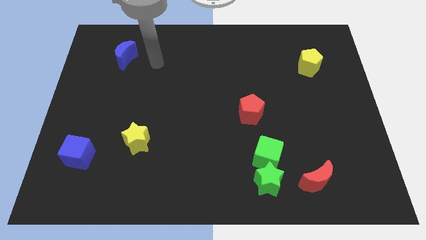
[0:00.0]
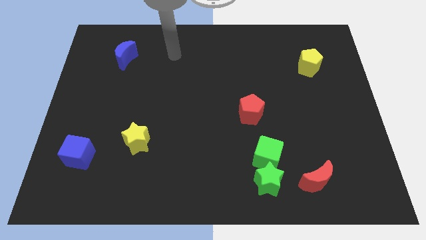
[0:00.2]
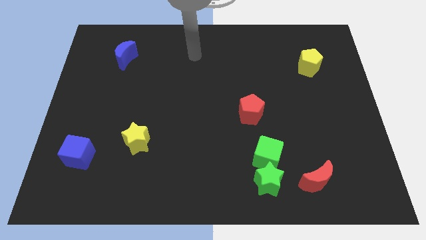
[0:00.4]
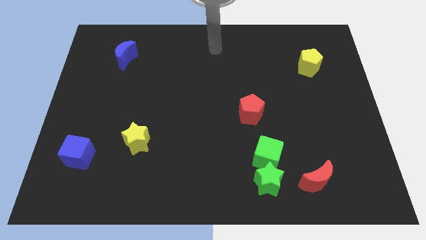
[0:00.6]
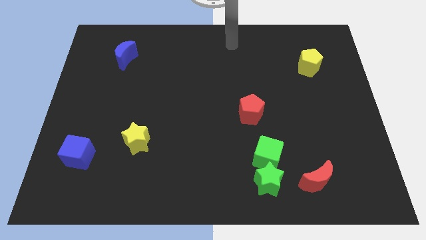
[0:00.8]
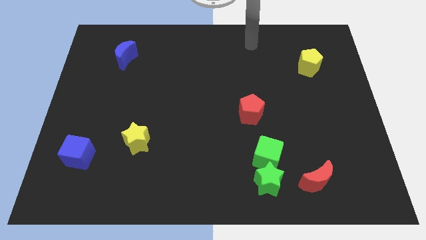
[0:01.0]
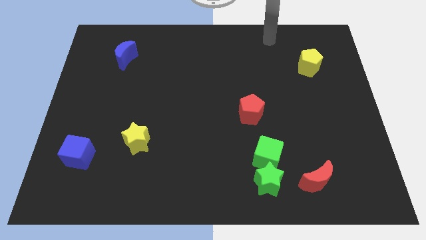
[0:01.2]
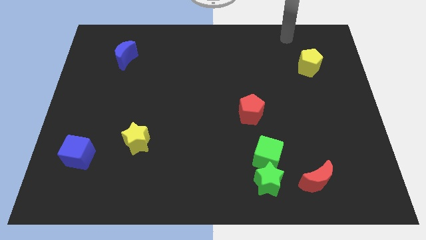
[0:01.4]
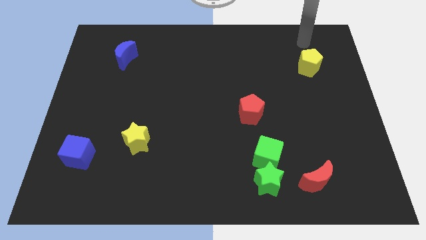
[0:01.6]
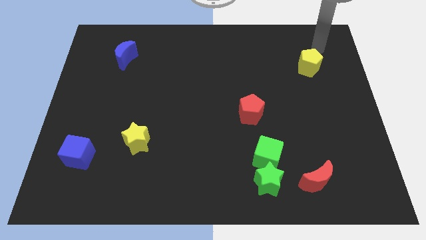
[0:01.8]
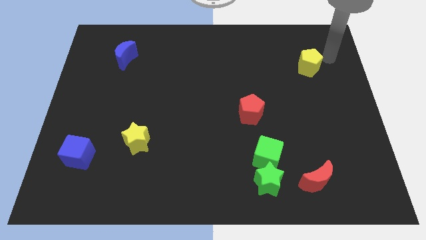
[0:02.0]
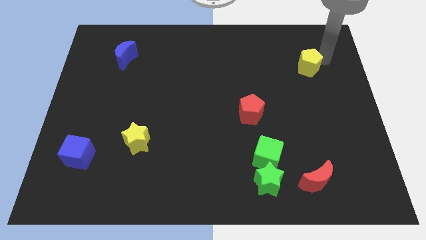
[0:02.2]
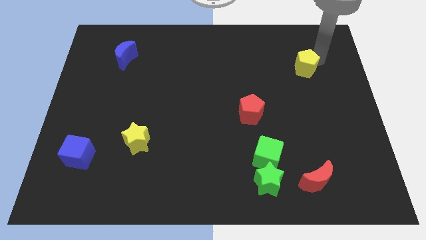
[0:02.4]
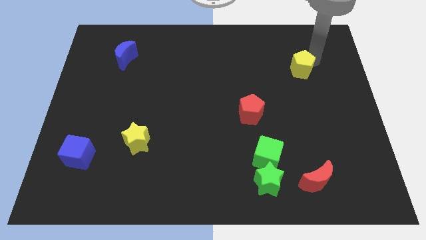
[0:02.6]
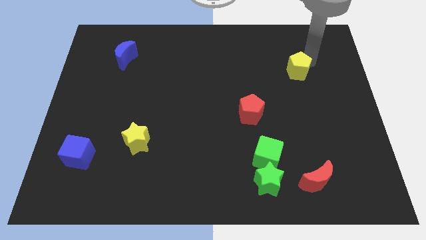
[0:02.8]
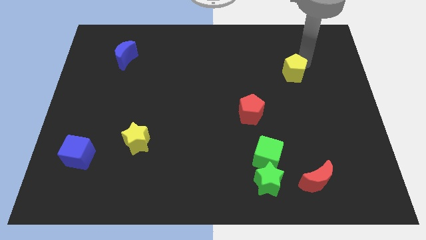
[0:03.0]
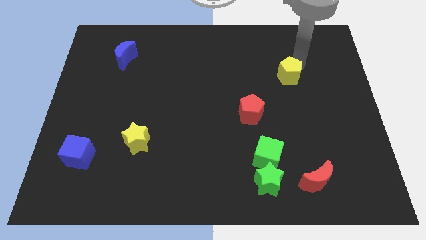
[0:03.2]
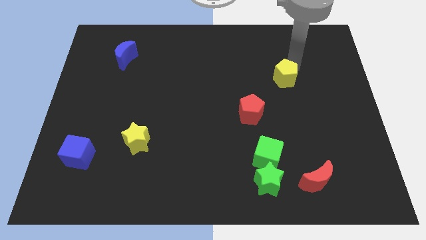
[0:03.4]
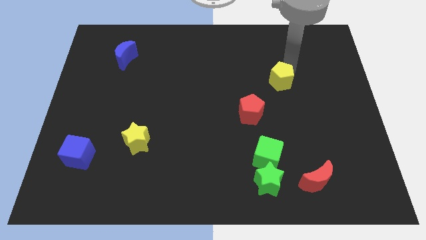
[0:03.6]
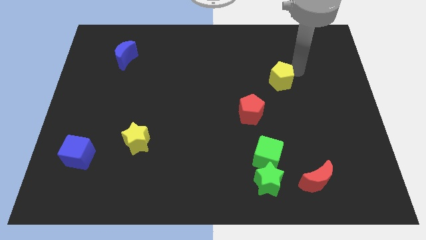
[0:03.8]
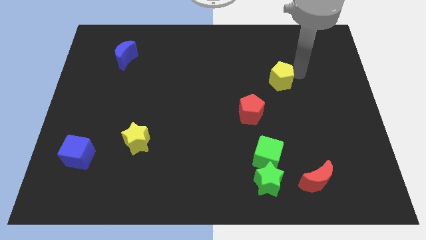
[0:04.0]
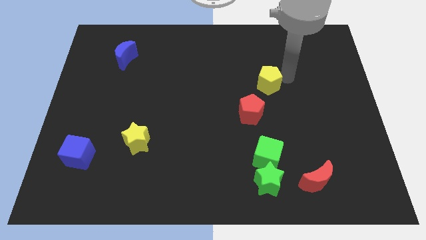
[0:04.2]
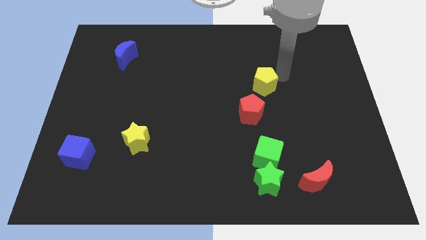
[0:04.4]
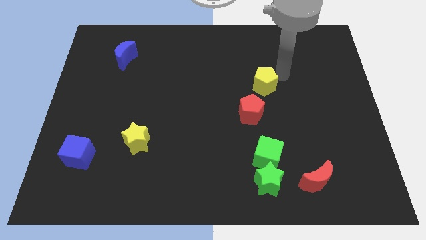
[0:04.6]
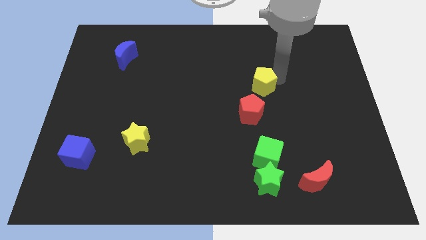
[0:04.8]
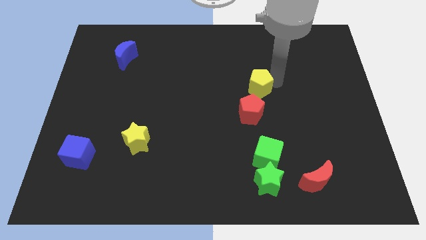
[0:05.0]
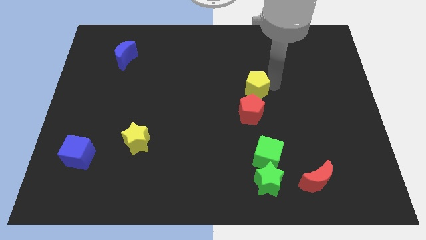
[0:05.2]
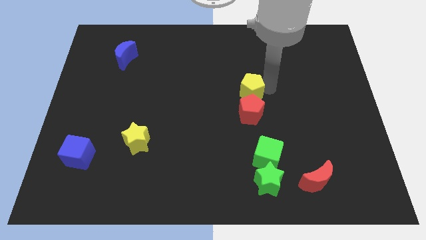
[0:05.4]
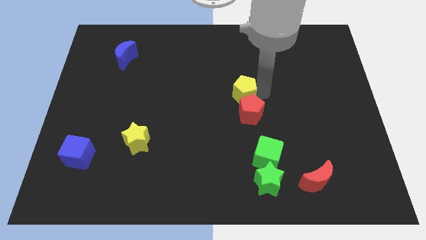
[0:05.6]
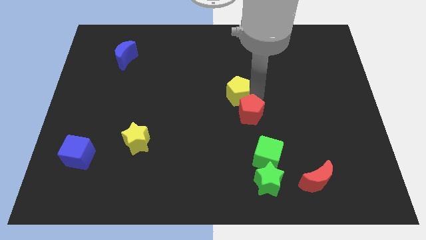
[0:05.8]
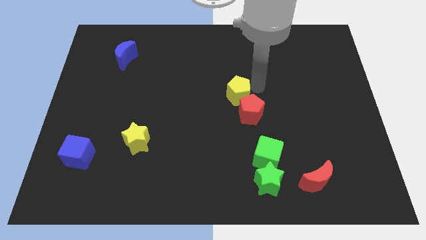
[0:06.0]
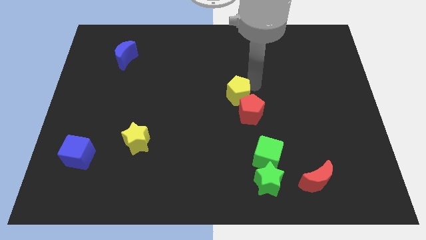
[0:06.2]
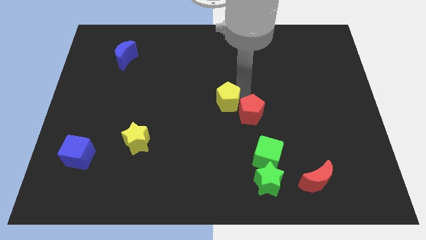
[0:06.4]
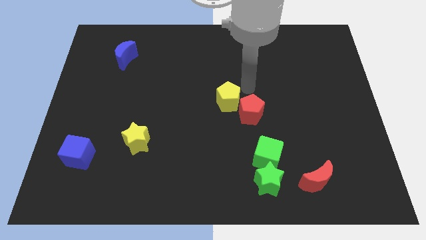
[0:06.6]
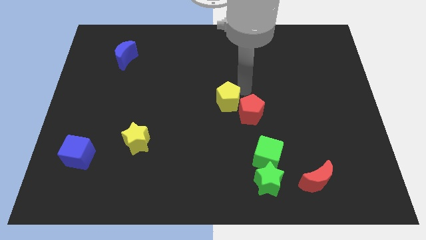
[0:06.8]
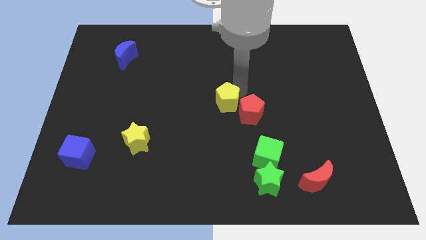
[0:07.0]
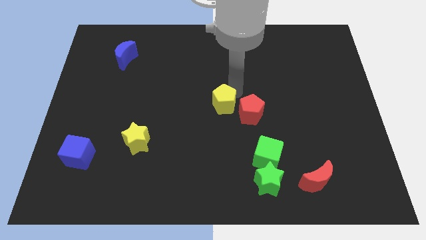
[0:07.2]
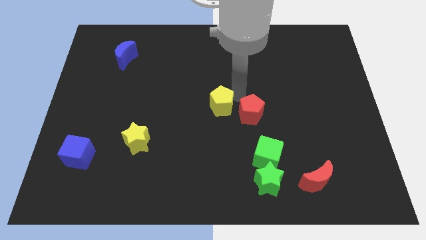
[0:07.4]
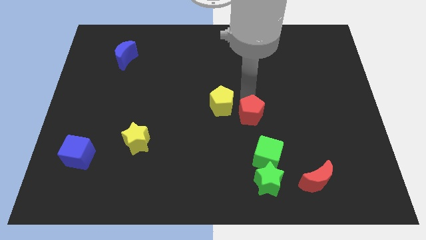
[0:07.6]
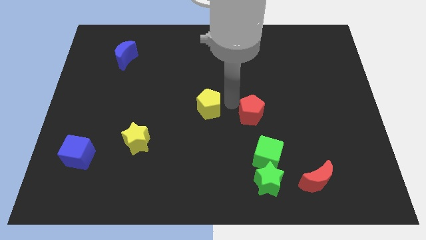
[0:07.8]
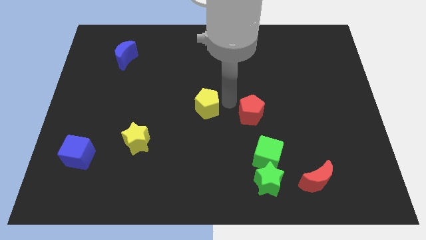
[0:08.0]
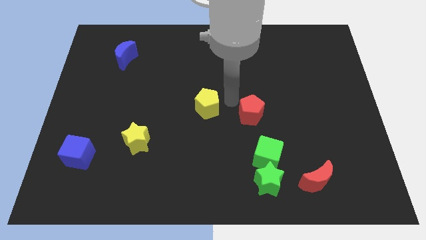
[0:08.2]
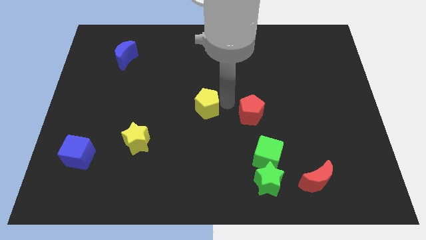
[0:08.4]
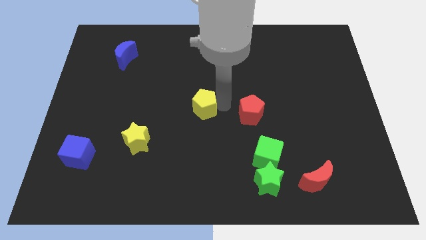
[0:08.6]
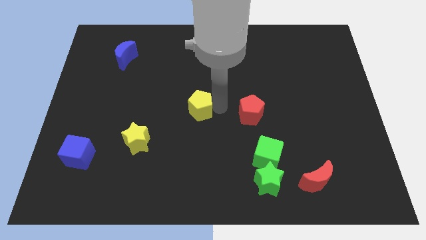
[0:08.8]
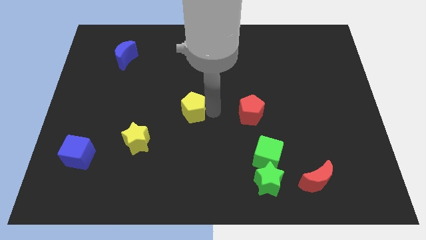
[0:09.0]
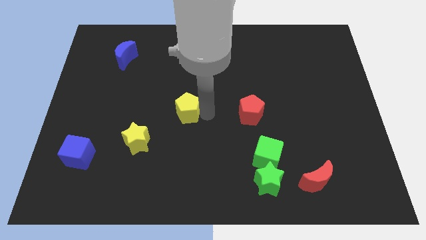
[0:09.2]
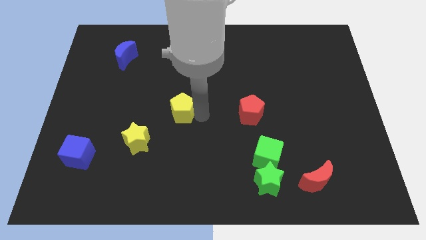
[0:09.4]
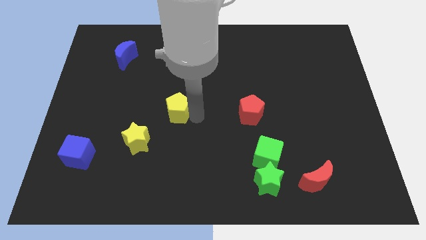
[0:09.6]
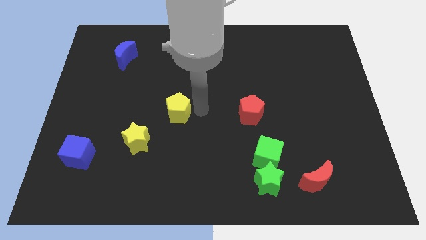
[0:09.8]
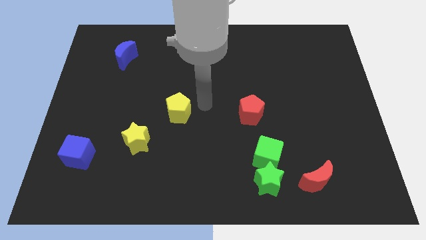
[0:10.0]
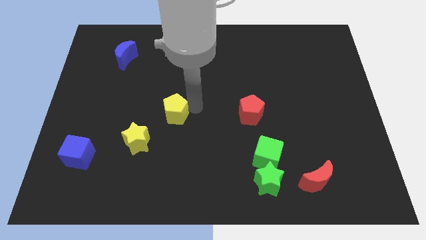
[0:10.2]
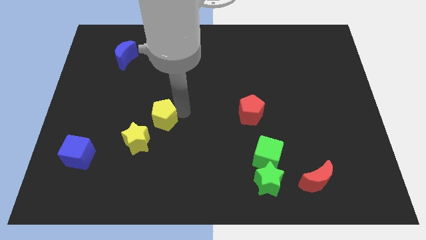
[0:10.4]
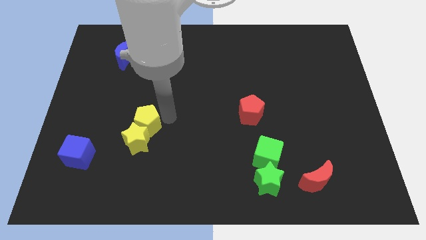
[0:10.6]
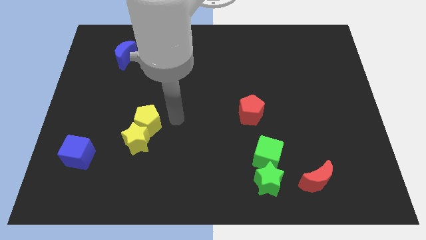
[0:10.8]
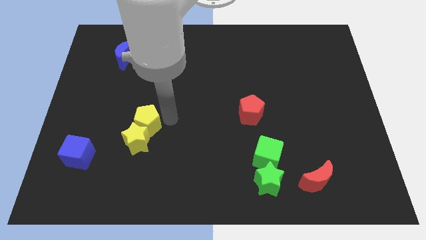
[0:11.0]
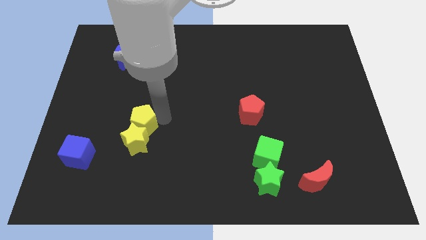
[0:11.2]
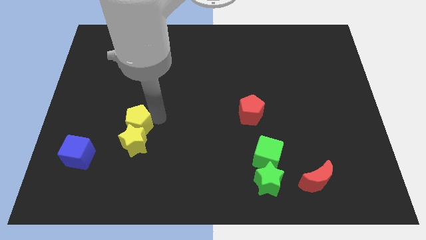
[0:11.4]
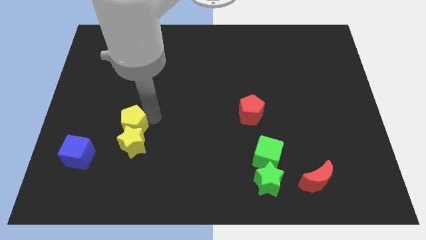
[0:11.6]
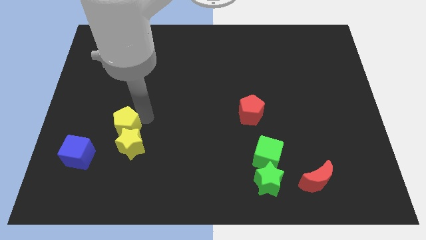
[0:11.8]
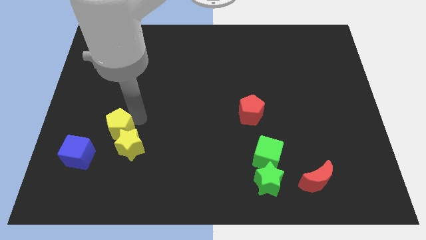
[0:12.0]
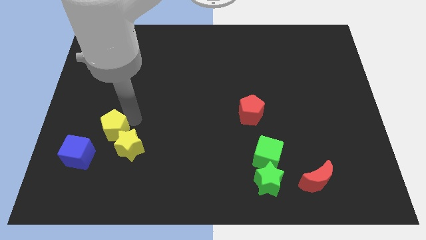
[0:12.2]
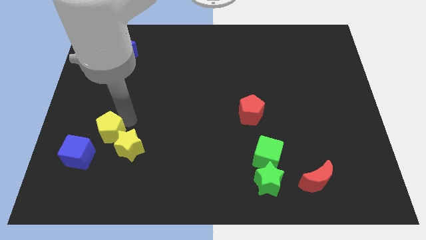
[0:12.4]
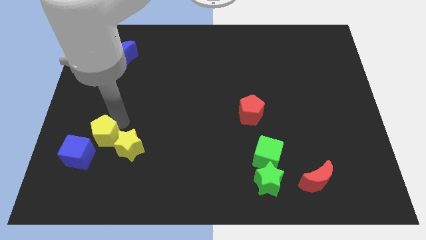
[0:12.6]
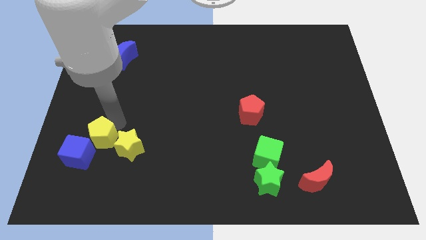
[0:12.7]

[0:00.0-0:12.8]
slide the yellow pentagon towards the blue cube

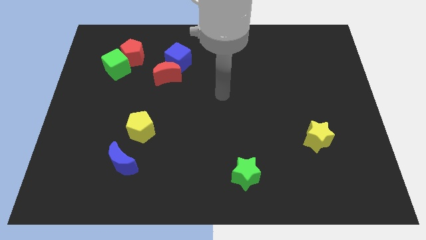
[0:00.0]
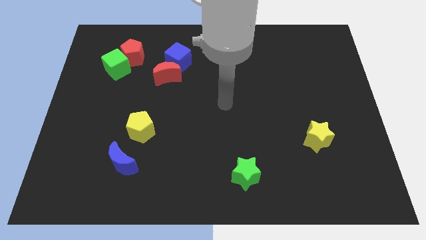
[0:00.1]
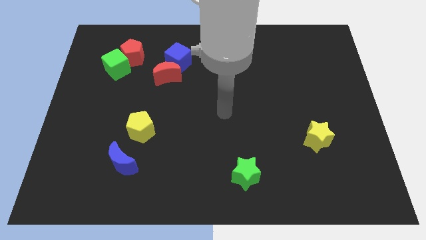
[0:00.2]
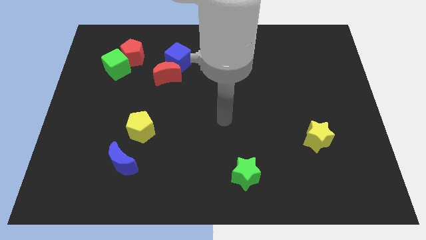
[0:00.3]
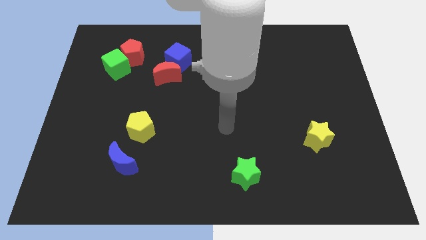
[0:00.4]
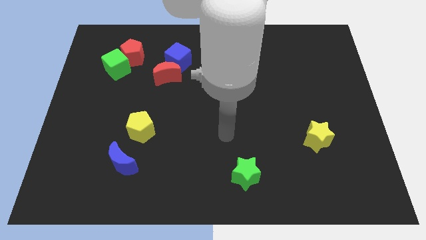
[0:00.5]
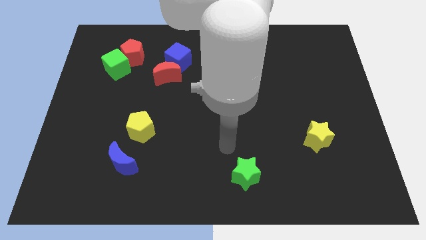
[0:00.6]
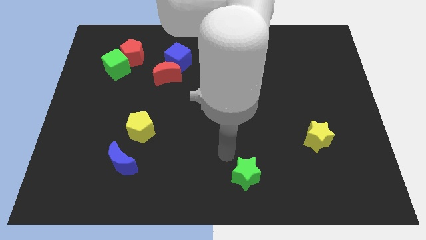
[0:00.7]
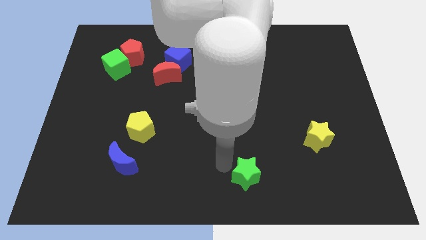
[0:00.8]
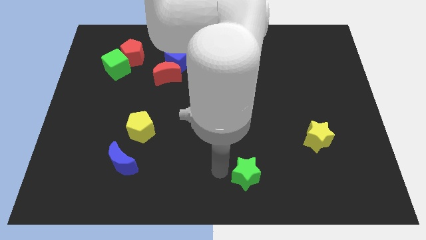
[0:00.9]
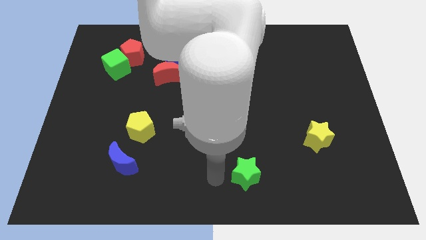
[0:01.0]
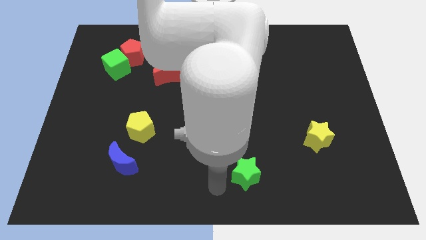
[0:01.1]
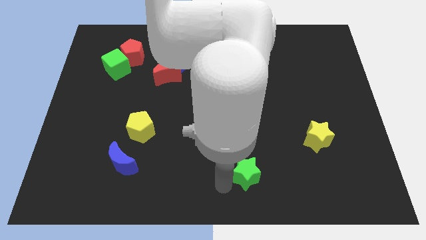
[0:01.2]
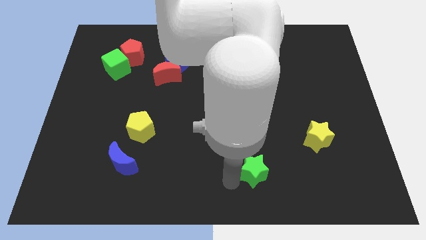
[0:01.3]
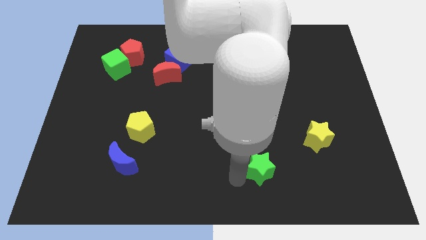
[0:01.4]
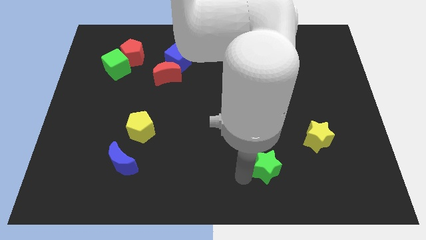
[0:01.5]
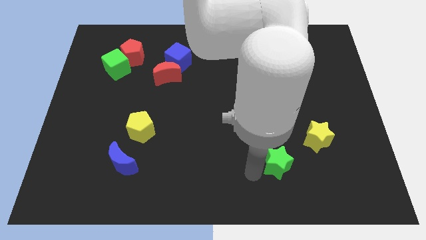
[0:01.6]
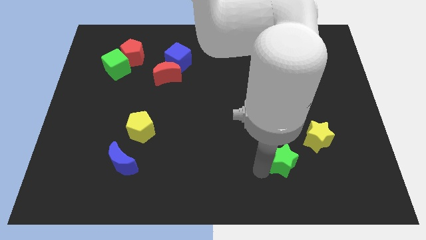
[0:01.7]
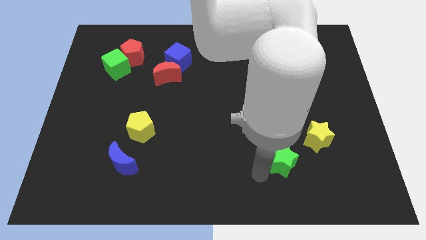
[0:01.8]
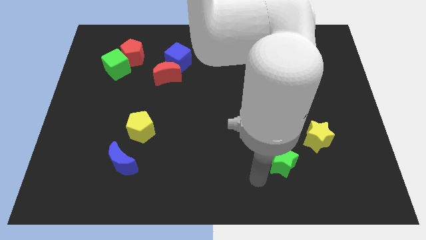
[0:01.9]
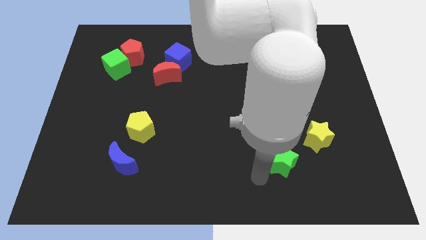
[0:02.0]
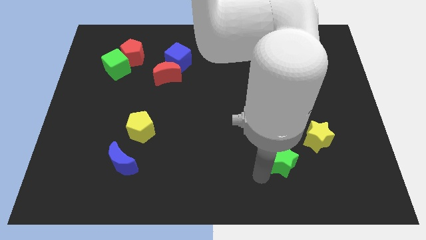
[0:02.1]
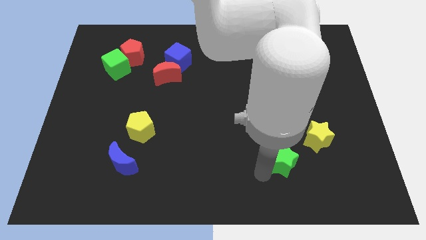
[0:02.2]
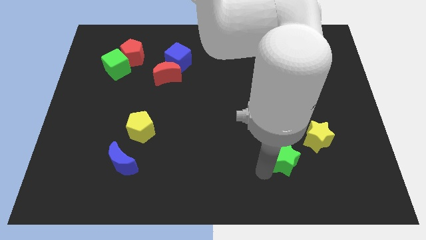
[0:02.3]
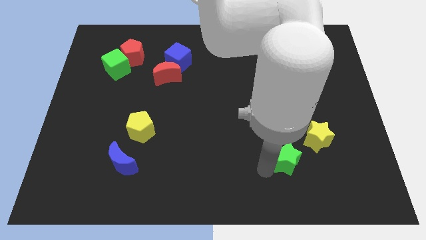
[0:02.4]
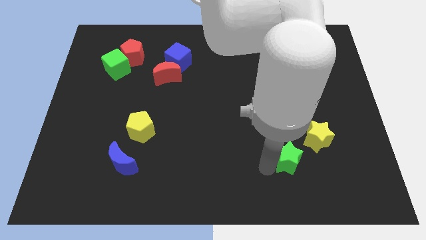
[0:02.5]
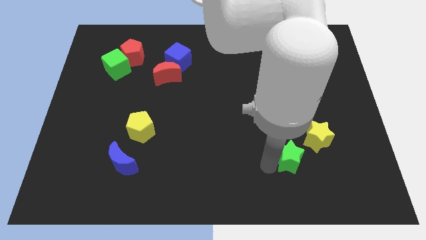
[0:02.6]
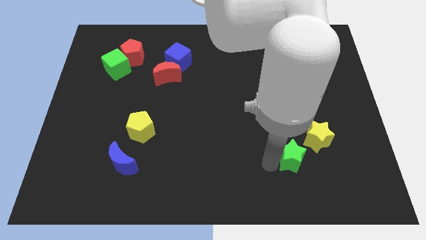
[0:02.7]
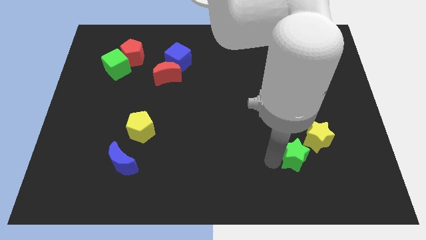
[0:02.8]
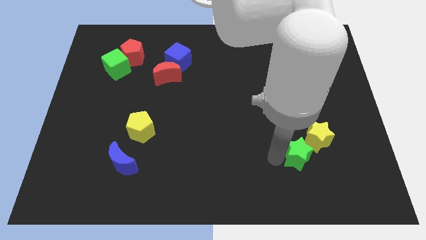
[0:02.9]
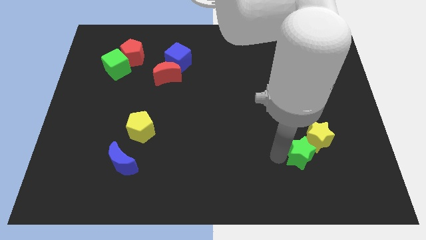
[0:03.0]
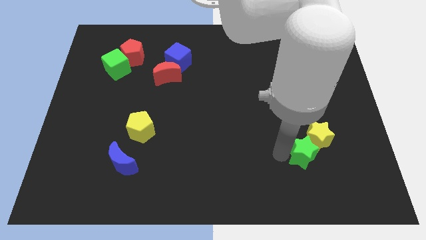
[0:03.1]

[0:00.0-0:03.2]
push the green star next to the yellow star
